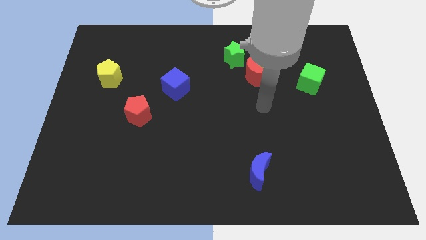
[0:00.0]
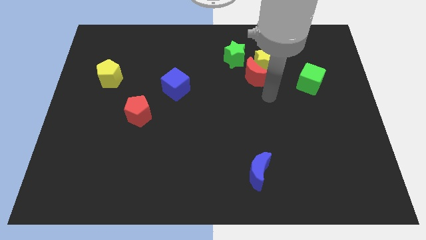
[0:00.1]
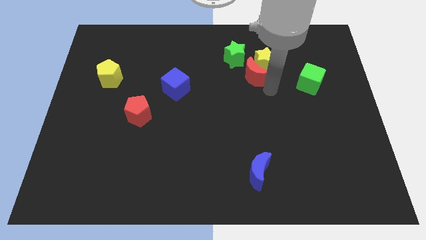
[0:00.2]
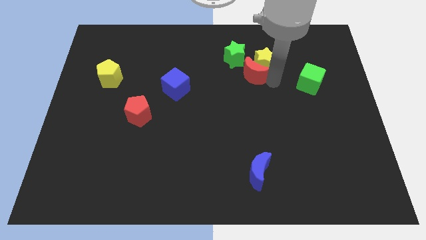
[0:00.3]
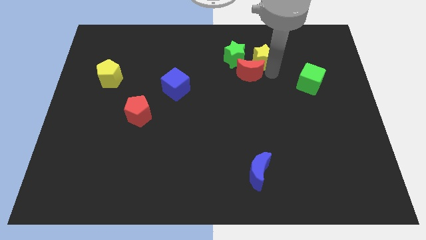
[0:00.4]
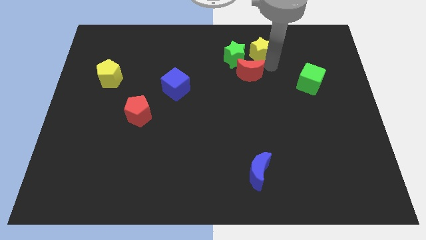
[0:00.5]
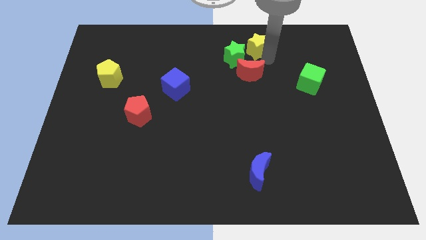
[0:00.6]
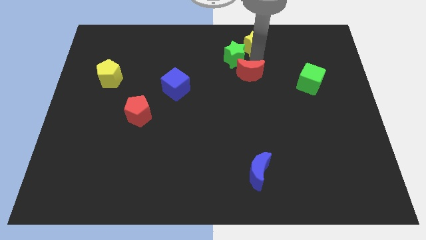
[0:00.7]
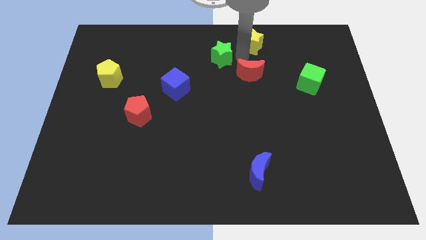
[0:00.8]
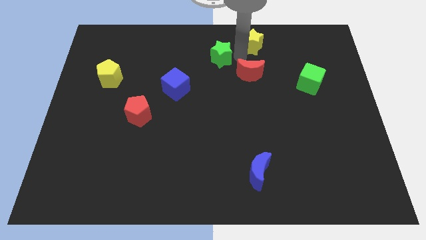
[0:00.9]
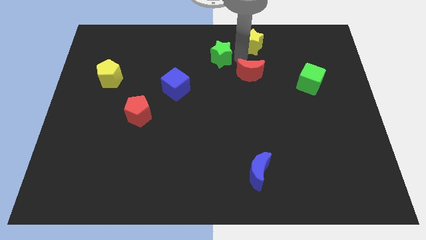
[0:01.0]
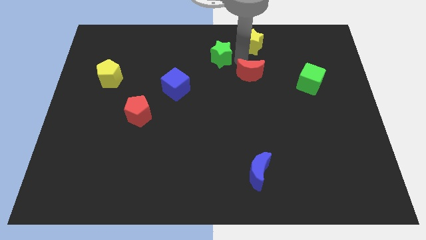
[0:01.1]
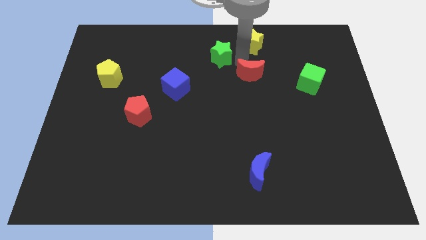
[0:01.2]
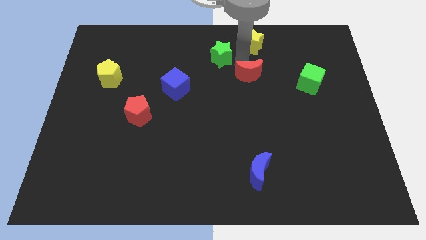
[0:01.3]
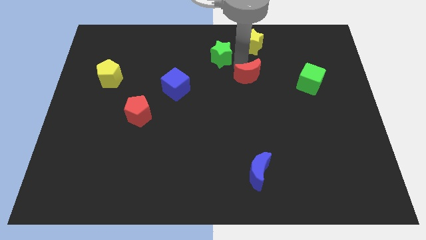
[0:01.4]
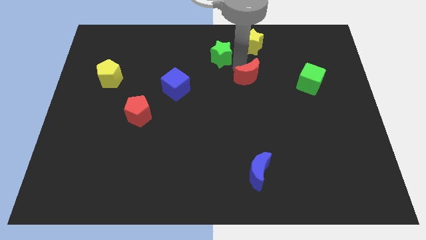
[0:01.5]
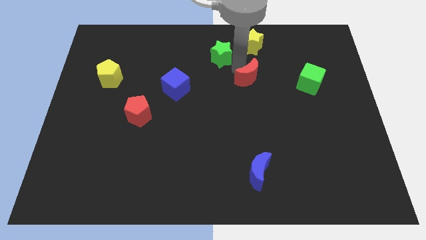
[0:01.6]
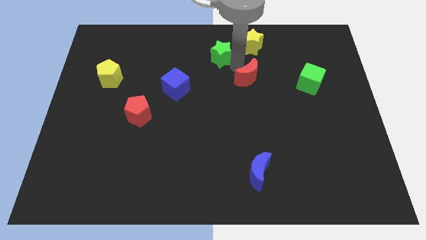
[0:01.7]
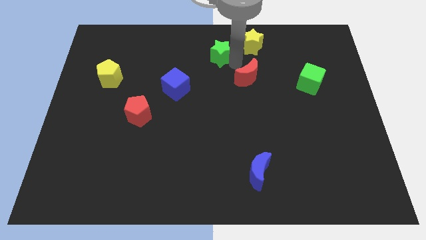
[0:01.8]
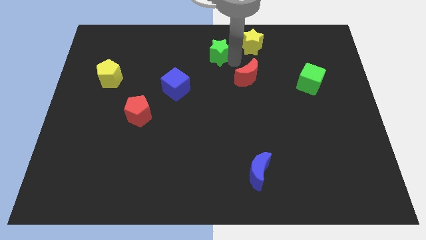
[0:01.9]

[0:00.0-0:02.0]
pull the red moon apart from the yellow star and green star

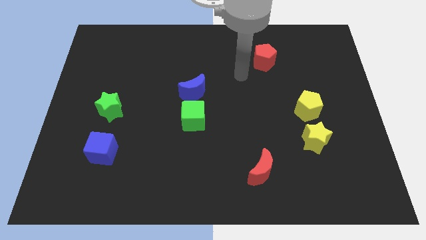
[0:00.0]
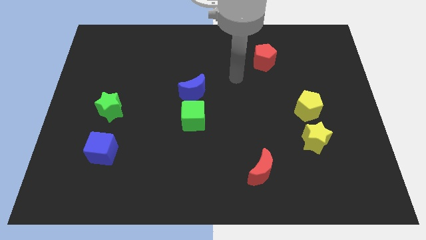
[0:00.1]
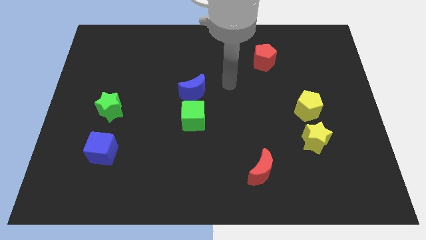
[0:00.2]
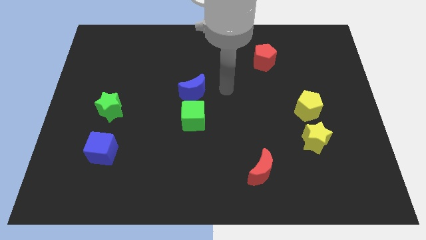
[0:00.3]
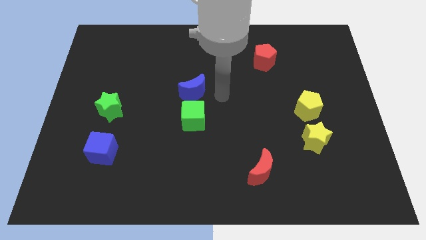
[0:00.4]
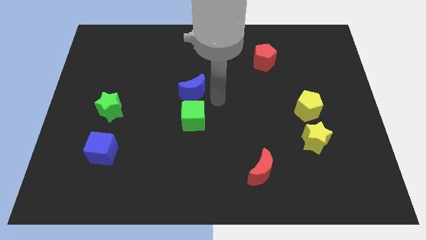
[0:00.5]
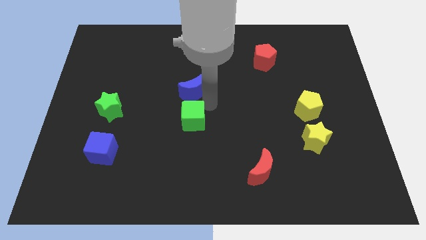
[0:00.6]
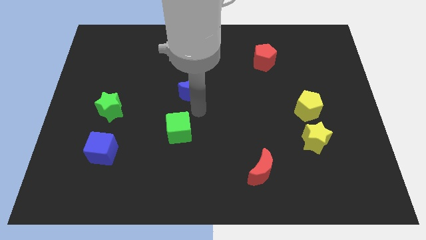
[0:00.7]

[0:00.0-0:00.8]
separate the blue moon from the green cube

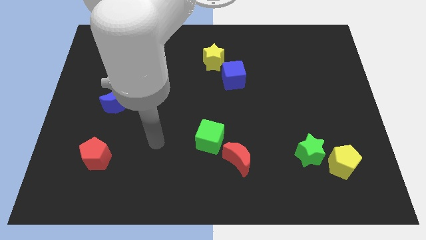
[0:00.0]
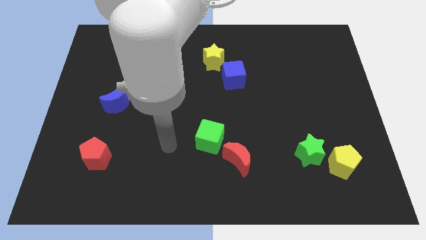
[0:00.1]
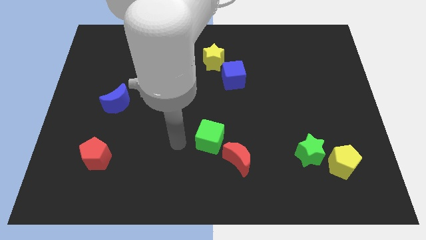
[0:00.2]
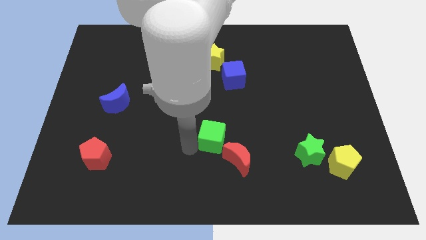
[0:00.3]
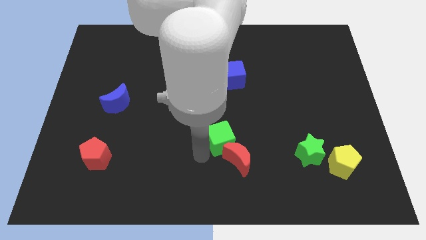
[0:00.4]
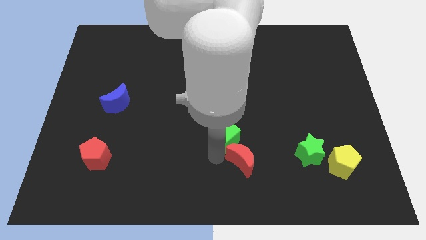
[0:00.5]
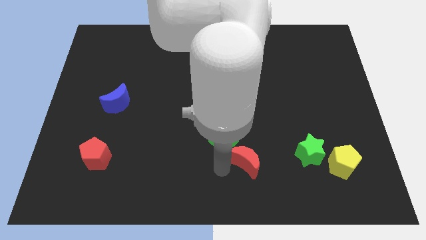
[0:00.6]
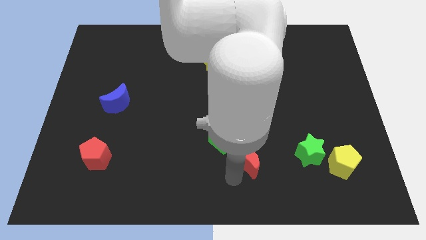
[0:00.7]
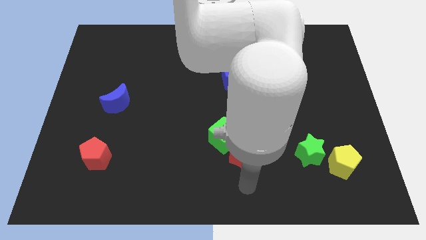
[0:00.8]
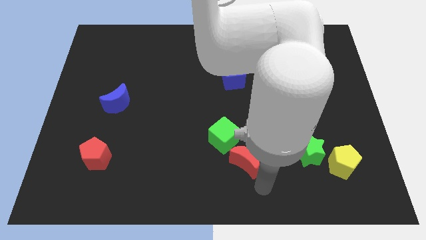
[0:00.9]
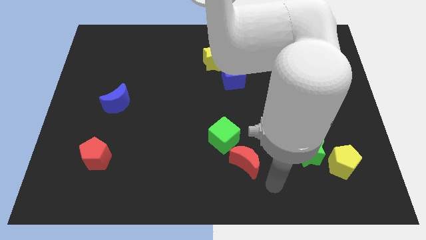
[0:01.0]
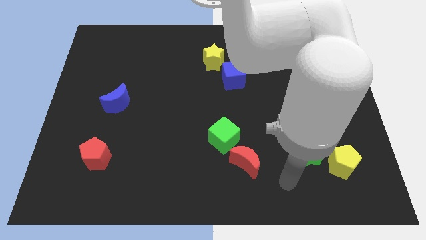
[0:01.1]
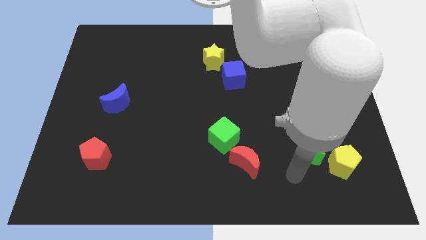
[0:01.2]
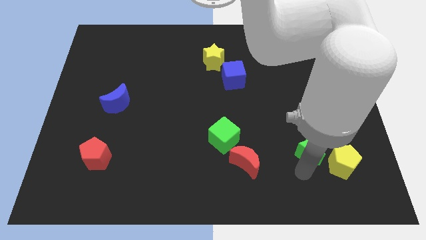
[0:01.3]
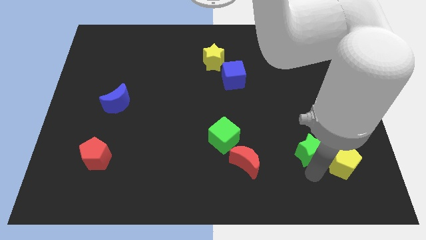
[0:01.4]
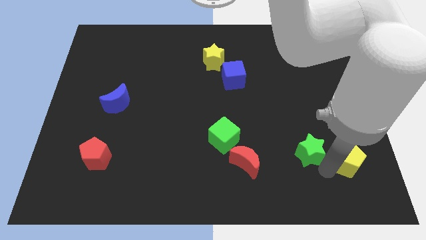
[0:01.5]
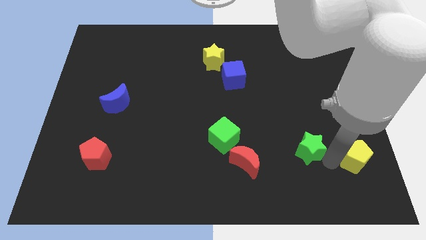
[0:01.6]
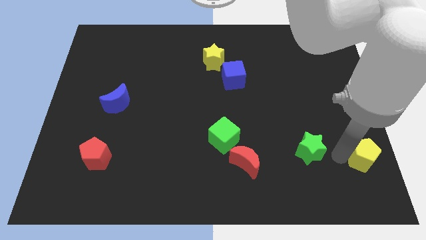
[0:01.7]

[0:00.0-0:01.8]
pull the green star apart from the yellow pentagon

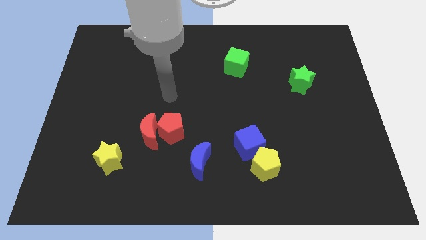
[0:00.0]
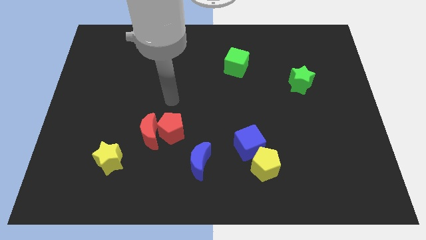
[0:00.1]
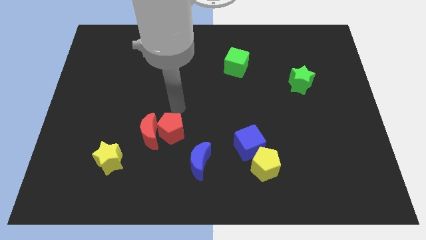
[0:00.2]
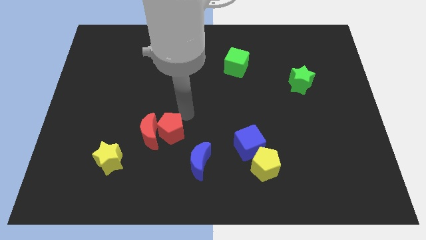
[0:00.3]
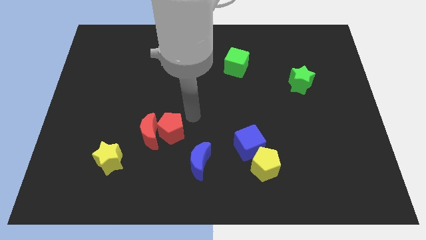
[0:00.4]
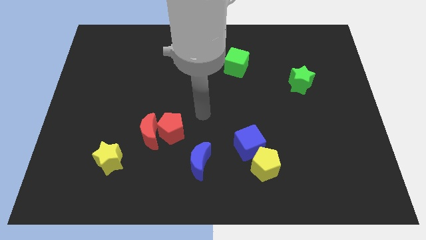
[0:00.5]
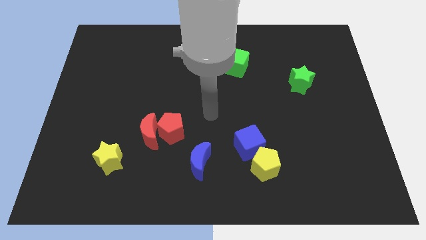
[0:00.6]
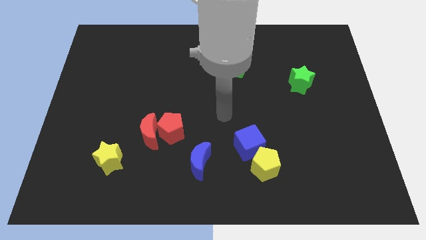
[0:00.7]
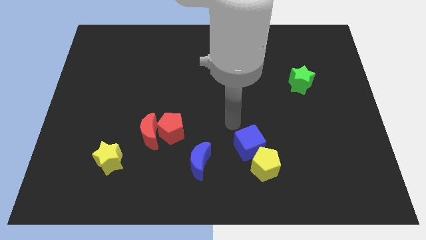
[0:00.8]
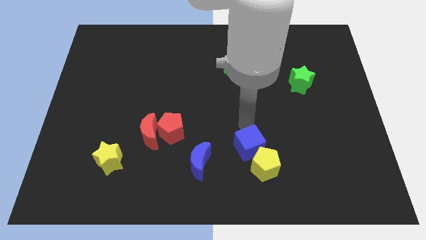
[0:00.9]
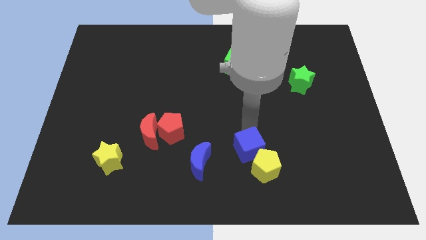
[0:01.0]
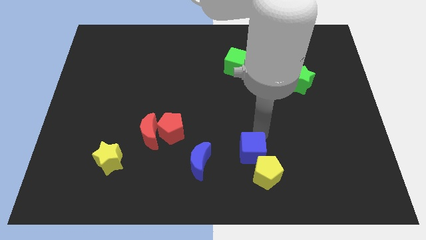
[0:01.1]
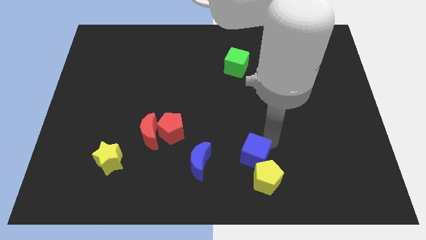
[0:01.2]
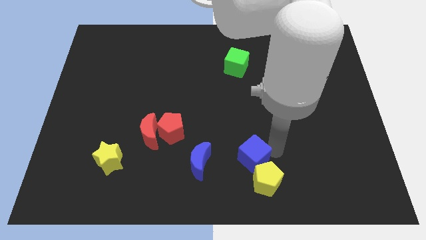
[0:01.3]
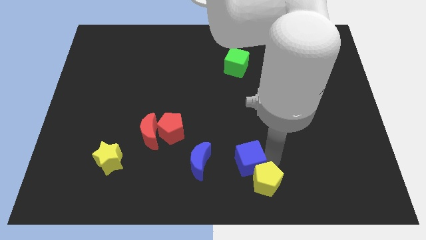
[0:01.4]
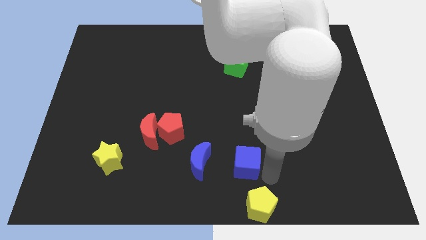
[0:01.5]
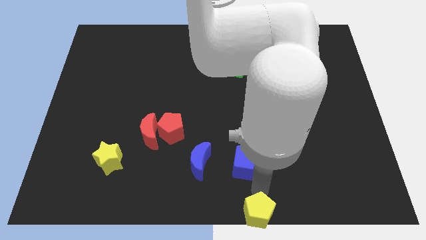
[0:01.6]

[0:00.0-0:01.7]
pull the blue cube apart from the yellow pentagon

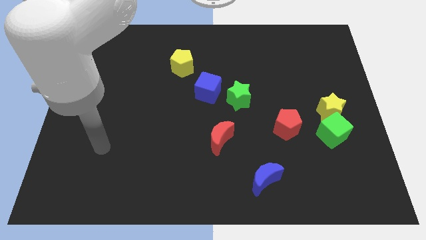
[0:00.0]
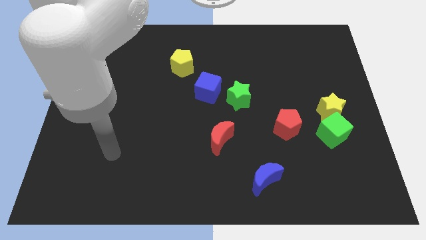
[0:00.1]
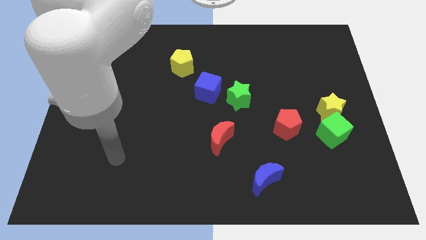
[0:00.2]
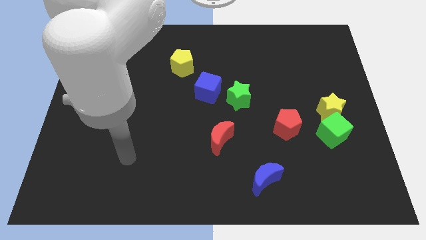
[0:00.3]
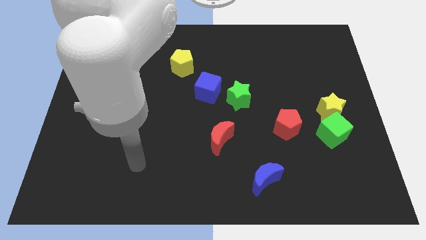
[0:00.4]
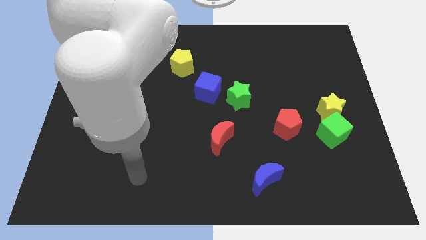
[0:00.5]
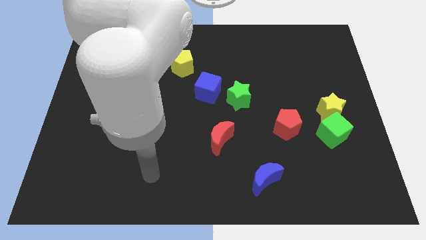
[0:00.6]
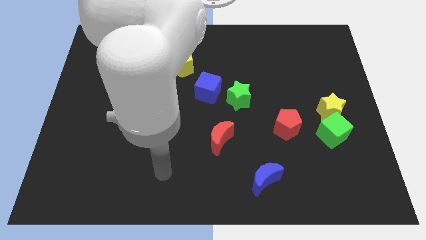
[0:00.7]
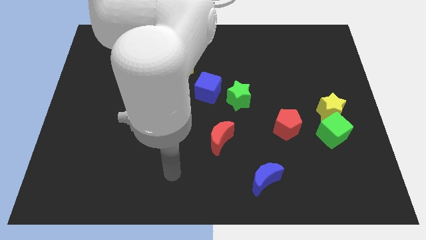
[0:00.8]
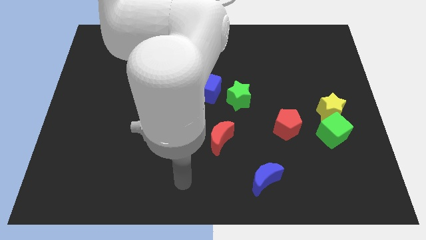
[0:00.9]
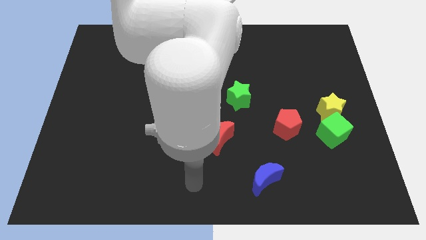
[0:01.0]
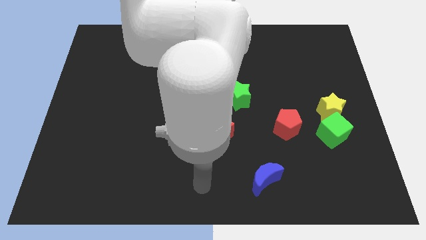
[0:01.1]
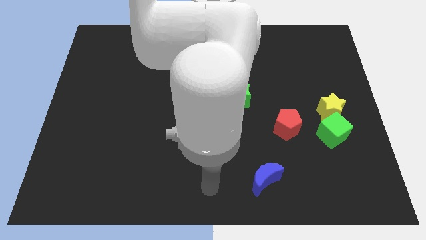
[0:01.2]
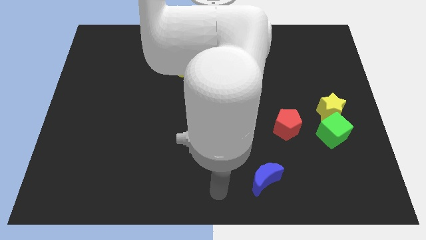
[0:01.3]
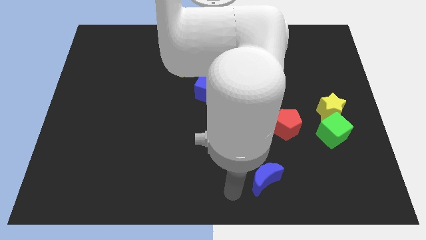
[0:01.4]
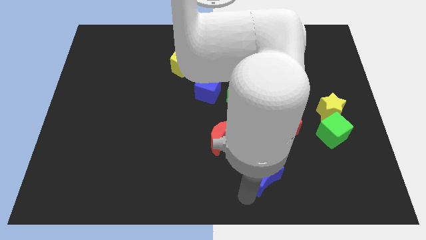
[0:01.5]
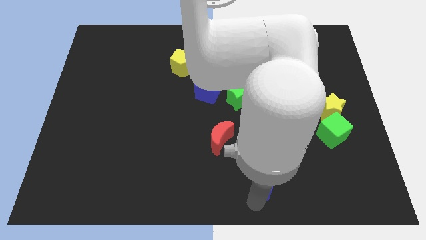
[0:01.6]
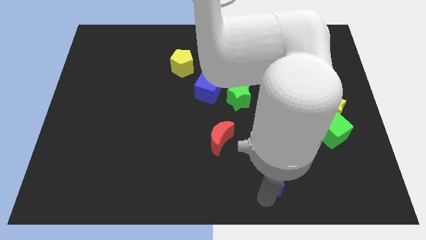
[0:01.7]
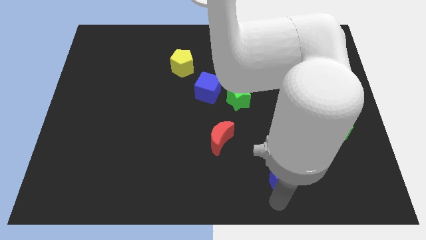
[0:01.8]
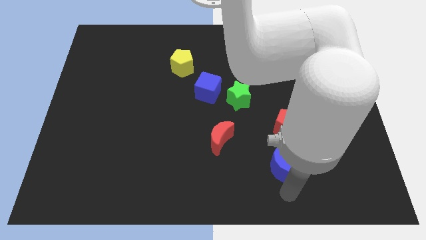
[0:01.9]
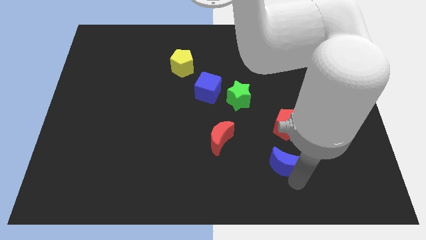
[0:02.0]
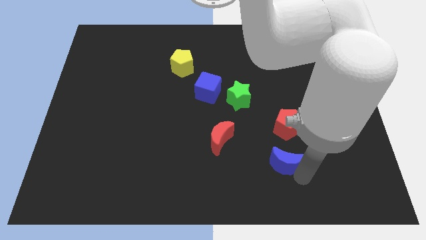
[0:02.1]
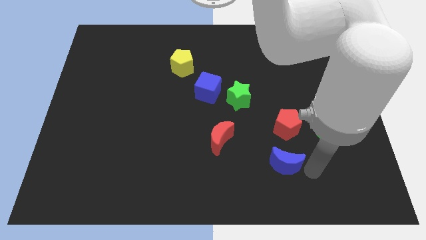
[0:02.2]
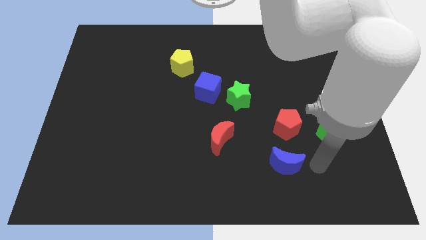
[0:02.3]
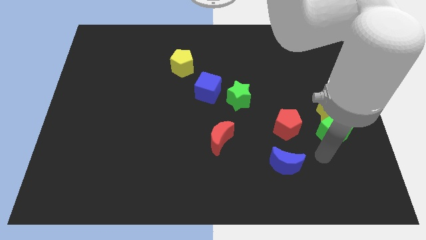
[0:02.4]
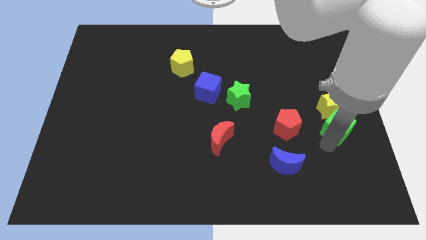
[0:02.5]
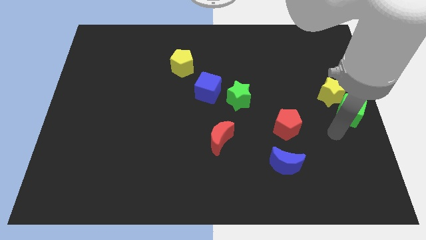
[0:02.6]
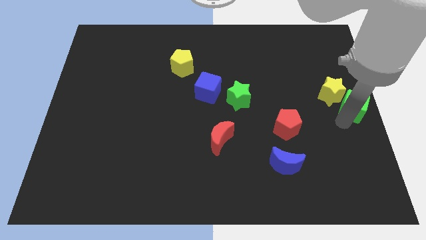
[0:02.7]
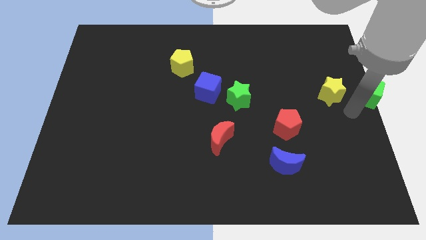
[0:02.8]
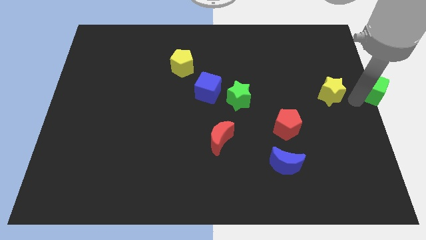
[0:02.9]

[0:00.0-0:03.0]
separate the yellow star from the green cube

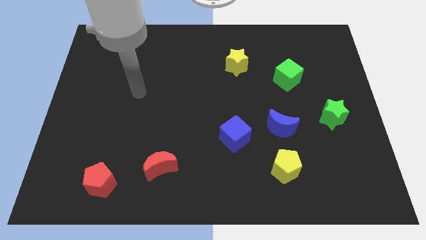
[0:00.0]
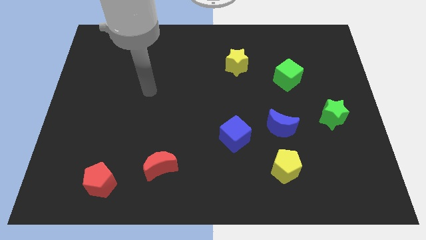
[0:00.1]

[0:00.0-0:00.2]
move the blue moon away from the yellow pentagon
